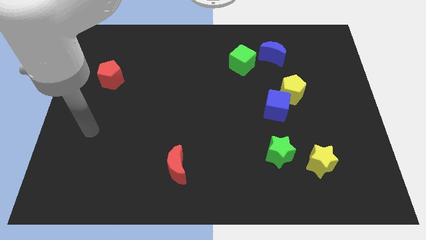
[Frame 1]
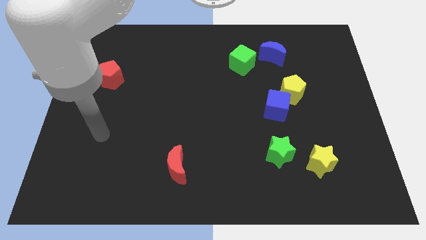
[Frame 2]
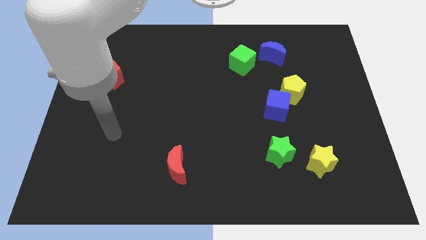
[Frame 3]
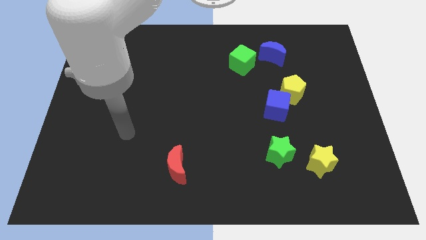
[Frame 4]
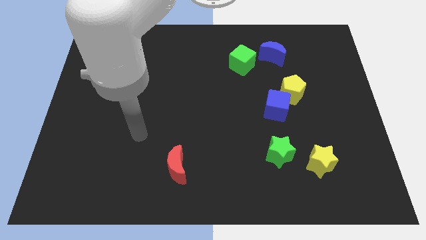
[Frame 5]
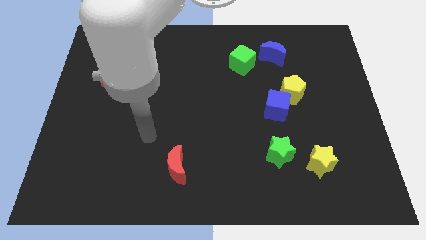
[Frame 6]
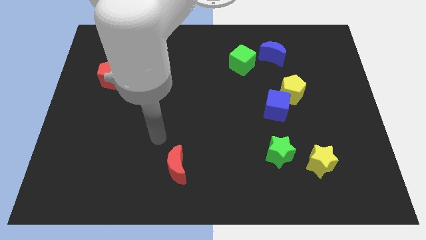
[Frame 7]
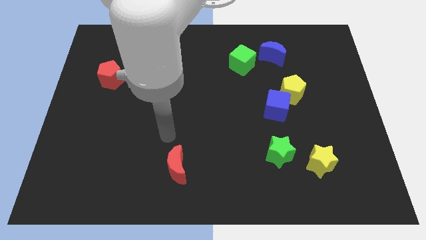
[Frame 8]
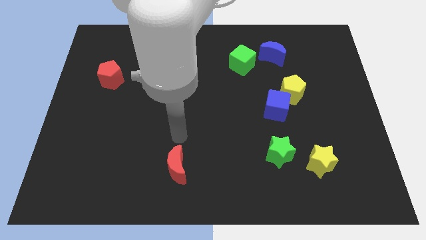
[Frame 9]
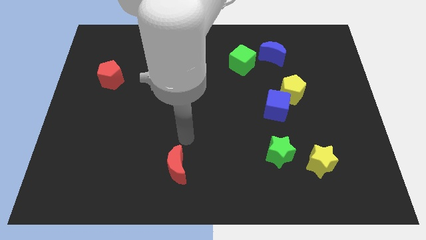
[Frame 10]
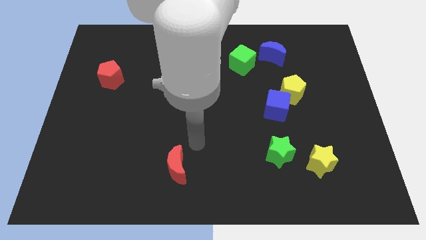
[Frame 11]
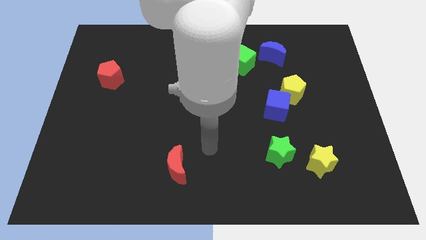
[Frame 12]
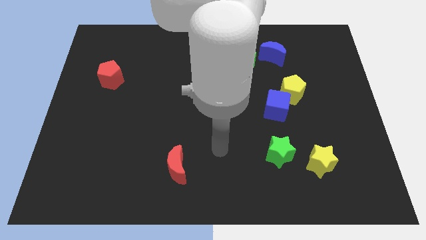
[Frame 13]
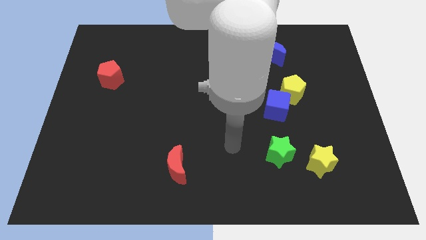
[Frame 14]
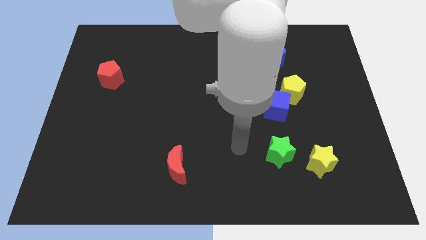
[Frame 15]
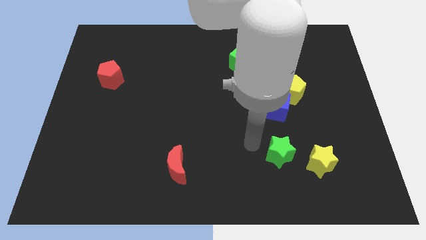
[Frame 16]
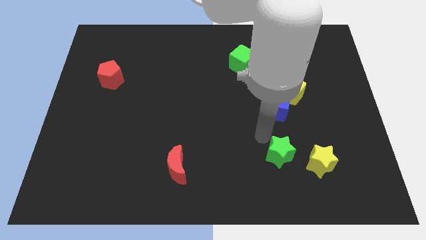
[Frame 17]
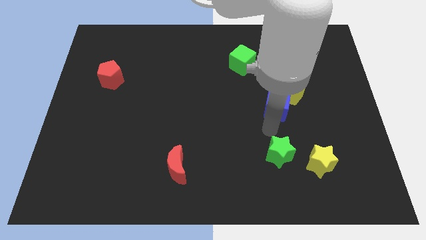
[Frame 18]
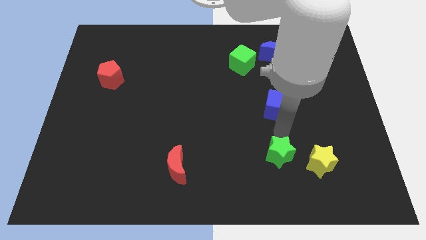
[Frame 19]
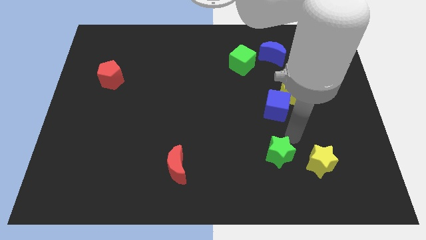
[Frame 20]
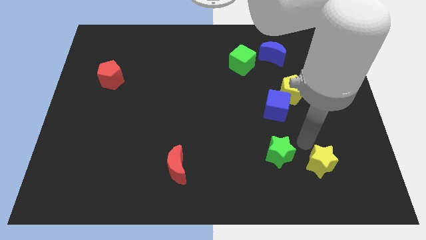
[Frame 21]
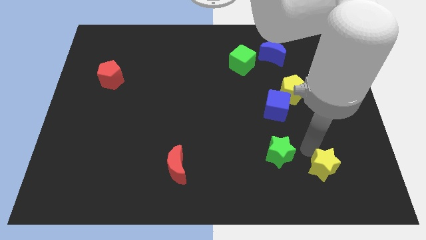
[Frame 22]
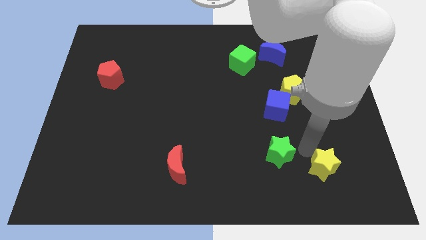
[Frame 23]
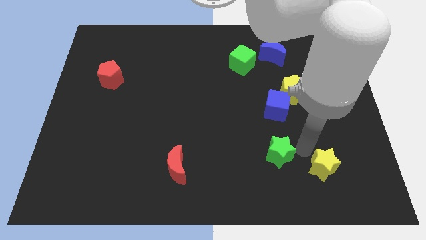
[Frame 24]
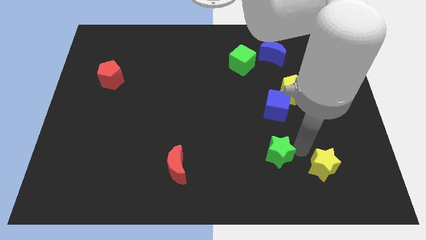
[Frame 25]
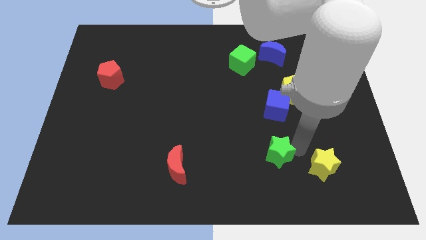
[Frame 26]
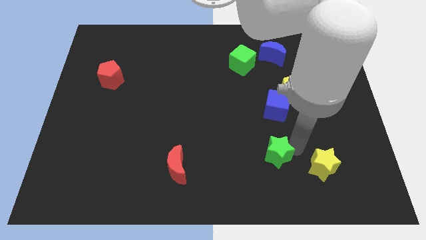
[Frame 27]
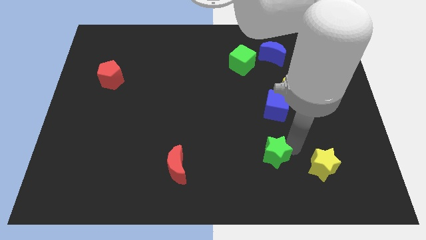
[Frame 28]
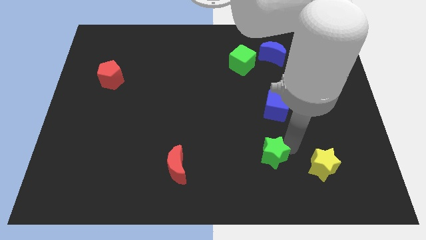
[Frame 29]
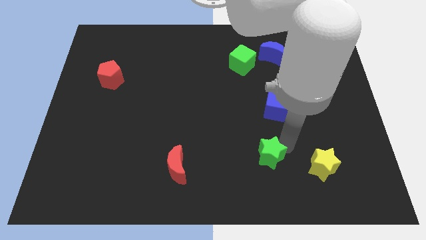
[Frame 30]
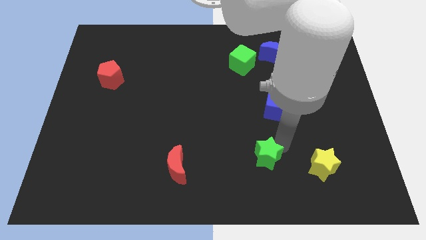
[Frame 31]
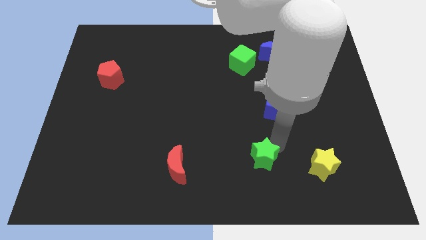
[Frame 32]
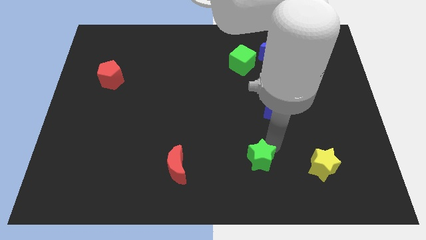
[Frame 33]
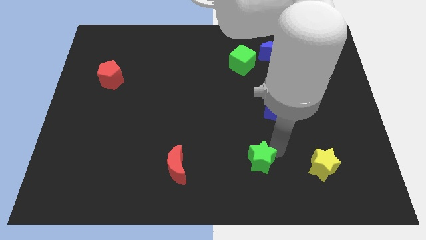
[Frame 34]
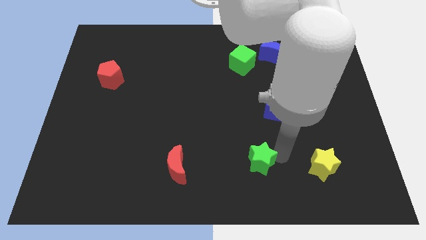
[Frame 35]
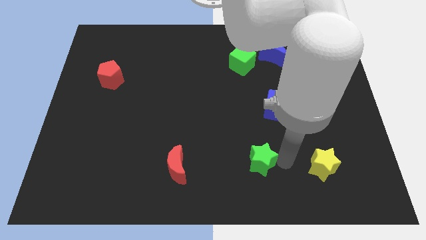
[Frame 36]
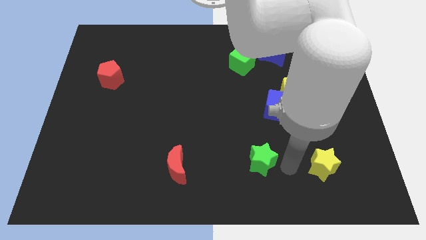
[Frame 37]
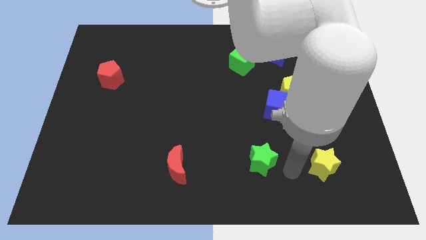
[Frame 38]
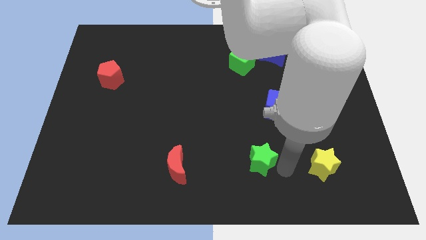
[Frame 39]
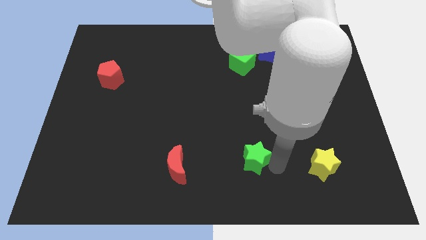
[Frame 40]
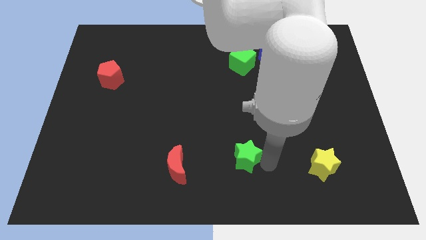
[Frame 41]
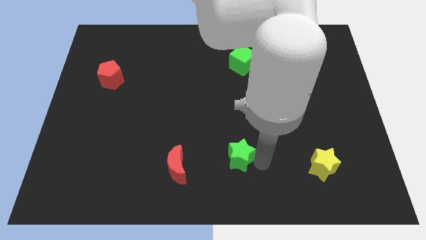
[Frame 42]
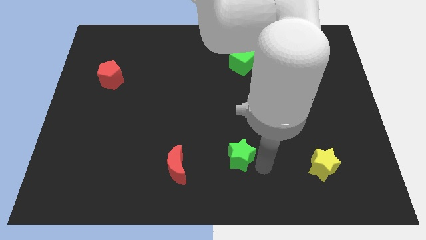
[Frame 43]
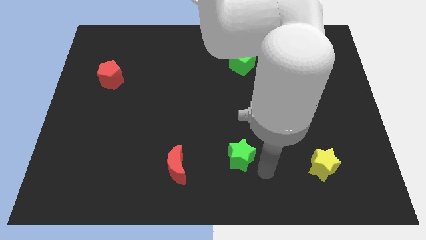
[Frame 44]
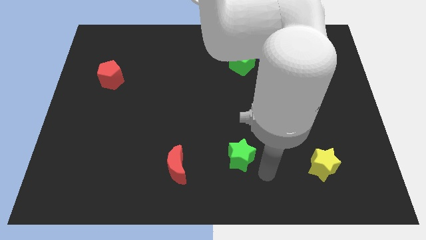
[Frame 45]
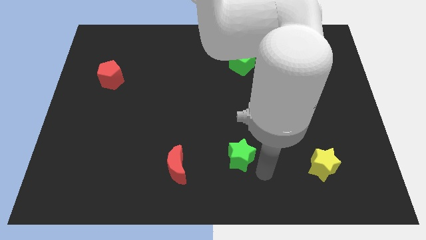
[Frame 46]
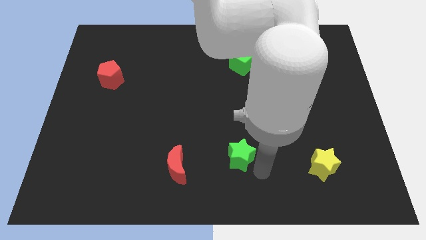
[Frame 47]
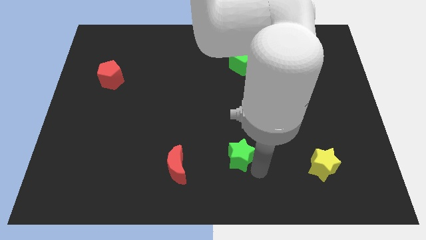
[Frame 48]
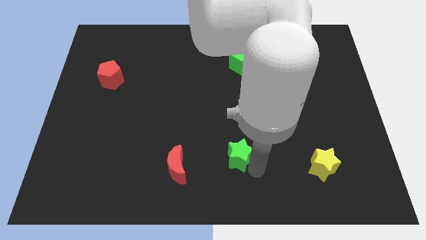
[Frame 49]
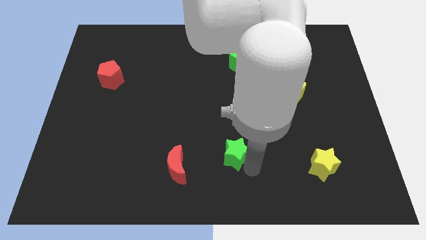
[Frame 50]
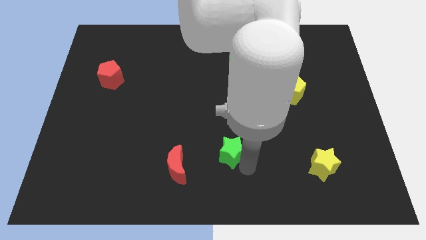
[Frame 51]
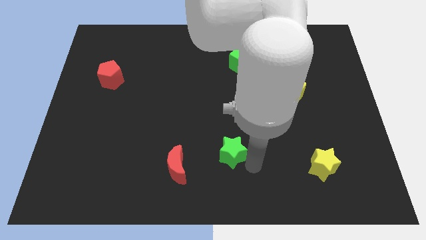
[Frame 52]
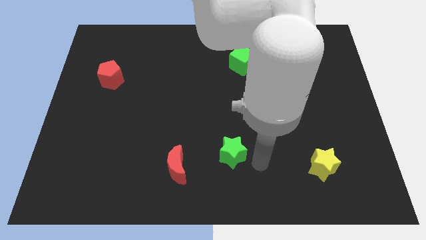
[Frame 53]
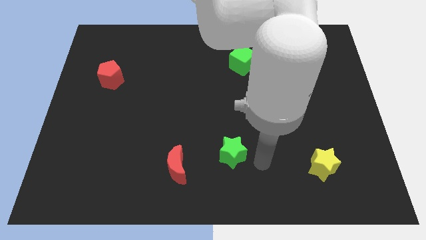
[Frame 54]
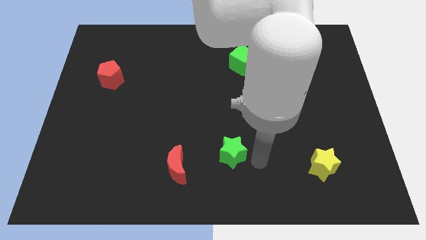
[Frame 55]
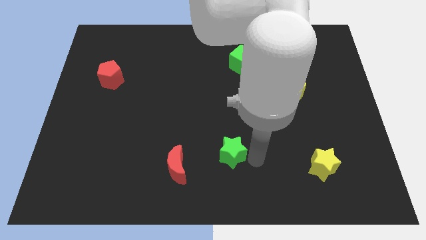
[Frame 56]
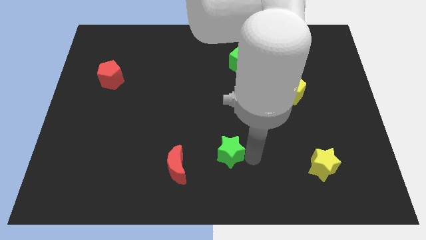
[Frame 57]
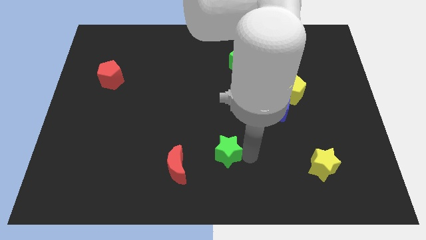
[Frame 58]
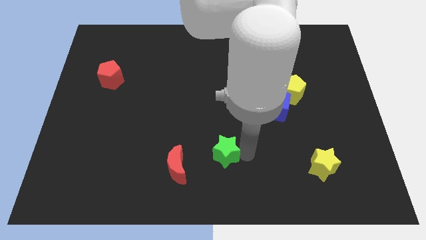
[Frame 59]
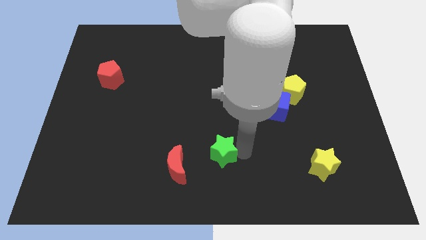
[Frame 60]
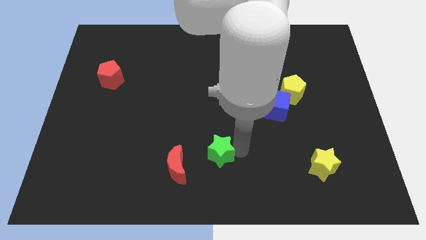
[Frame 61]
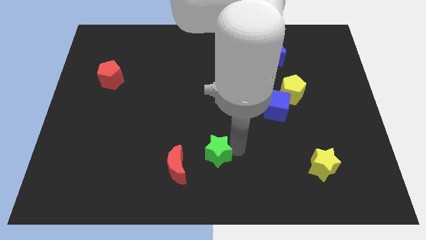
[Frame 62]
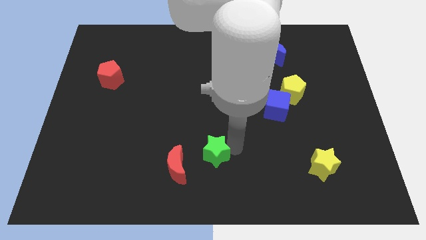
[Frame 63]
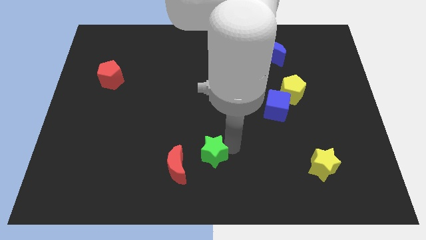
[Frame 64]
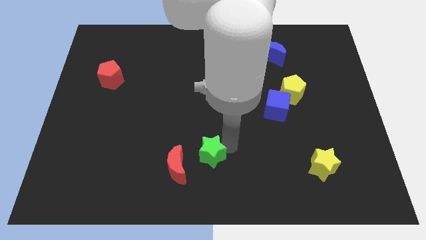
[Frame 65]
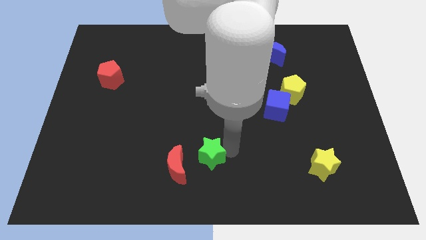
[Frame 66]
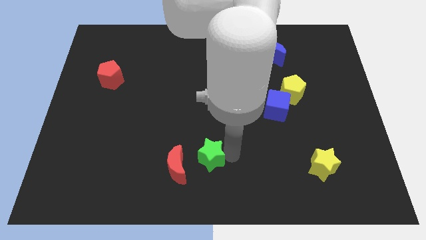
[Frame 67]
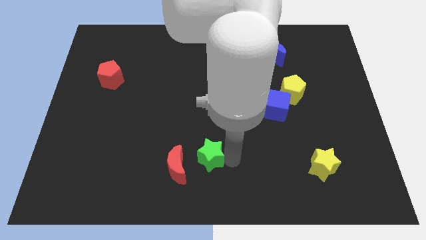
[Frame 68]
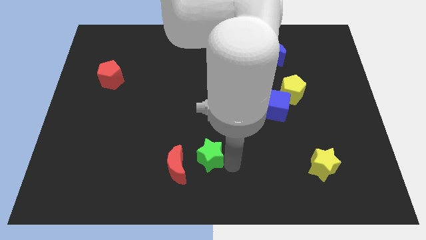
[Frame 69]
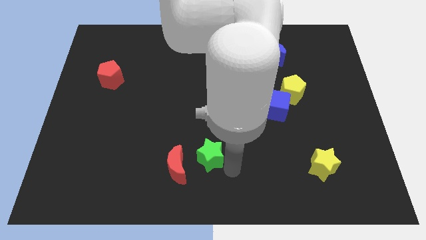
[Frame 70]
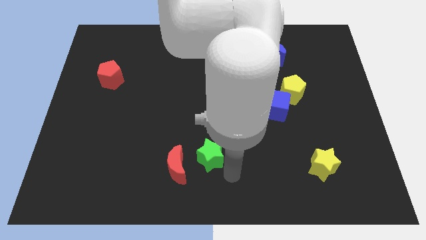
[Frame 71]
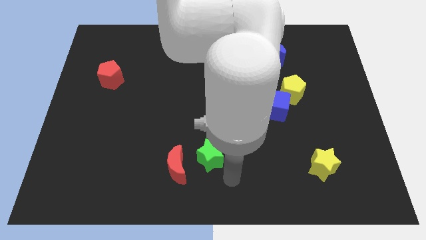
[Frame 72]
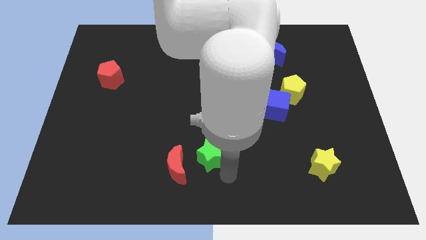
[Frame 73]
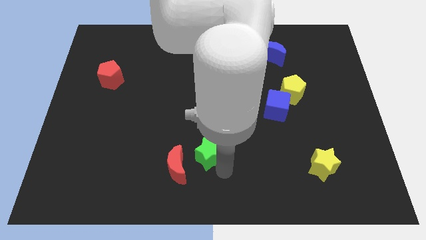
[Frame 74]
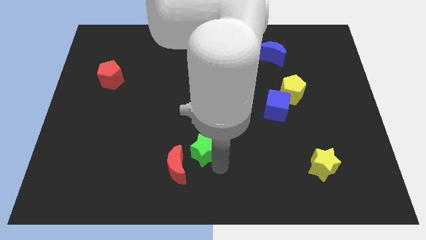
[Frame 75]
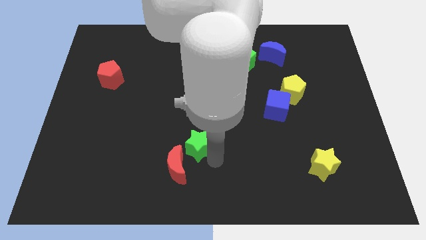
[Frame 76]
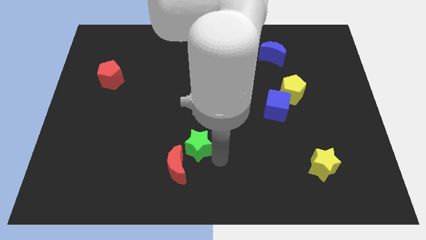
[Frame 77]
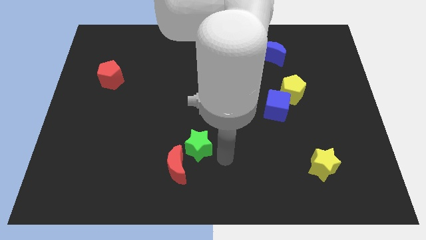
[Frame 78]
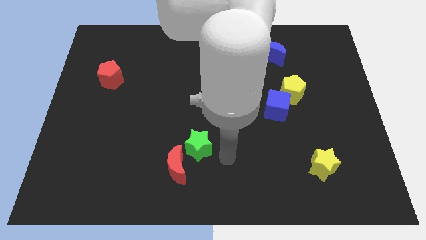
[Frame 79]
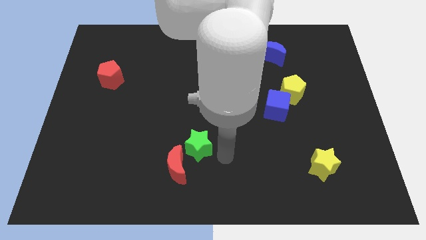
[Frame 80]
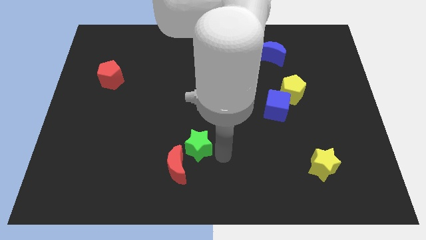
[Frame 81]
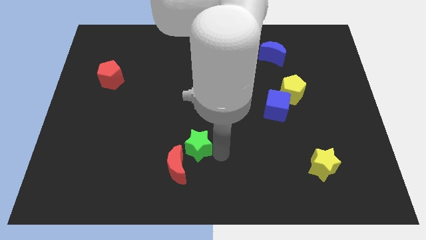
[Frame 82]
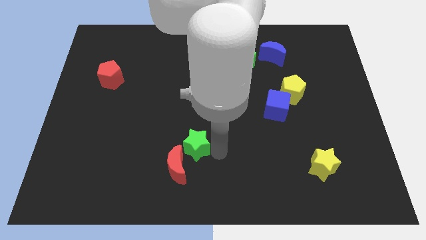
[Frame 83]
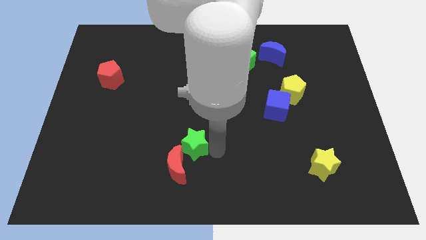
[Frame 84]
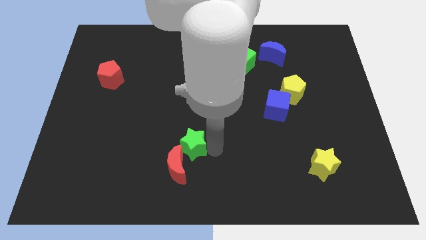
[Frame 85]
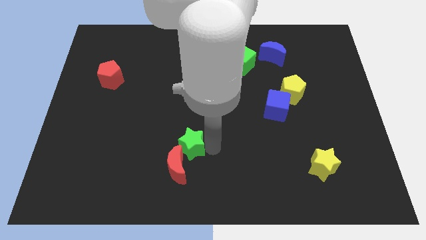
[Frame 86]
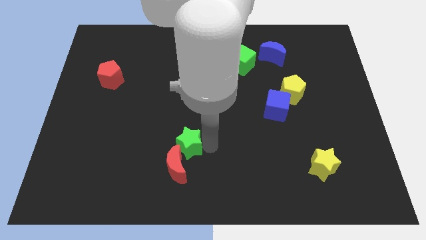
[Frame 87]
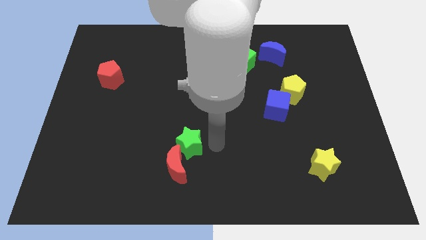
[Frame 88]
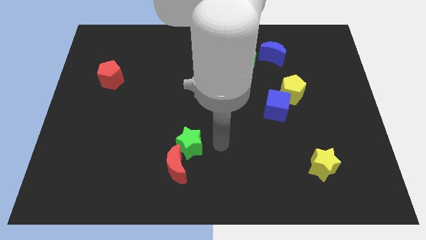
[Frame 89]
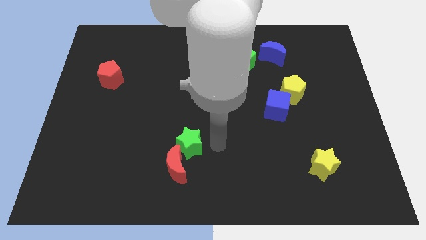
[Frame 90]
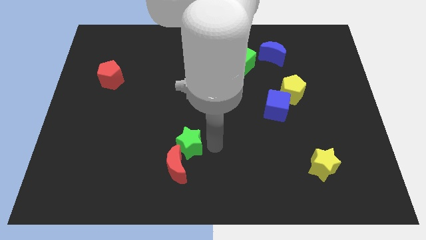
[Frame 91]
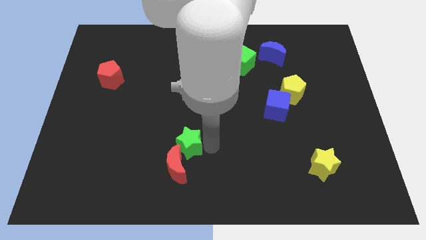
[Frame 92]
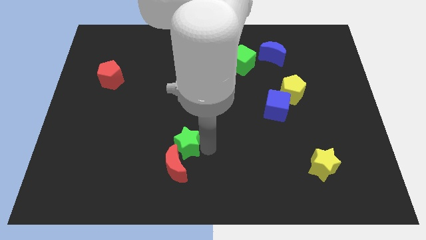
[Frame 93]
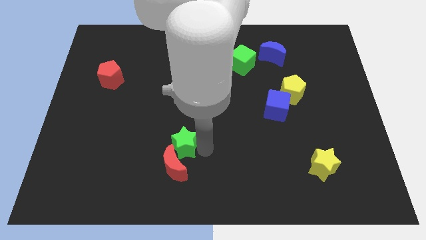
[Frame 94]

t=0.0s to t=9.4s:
move the green star to the left
